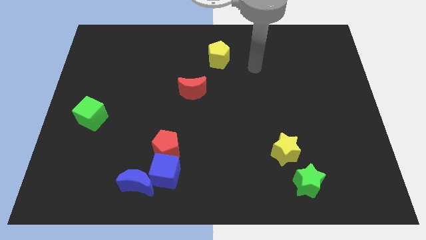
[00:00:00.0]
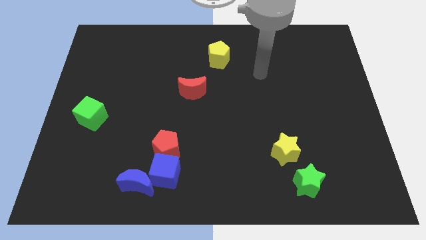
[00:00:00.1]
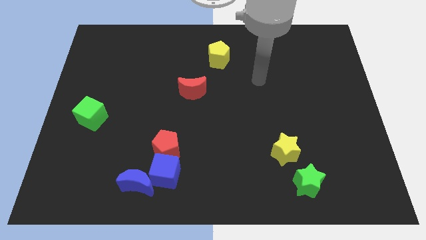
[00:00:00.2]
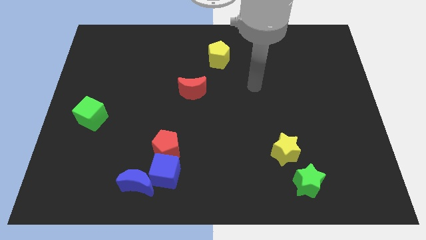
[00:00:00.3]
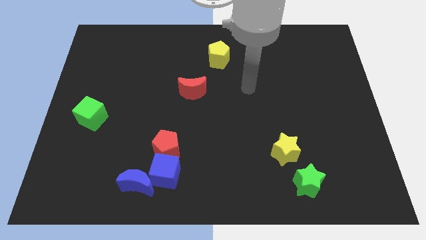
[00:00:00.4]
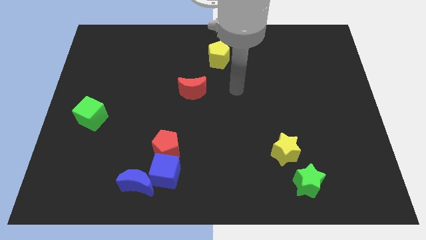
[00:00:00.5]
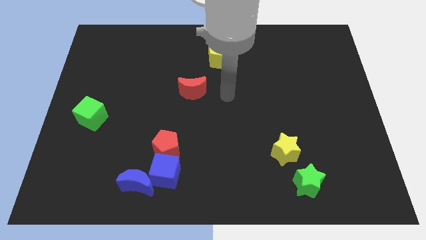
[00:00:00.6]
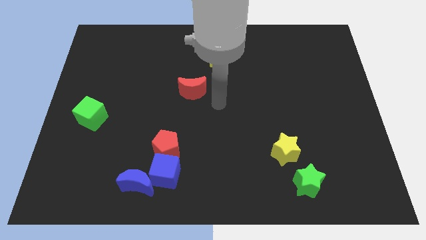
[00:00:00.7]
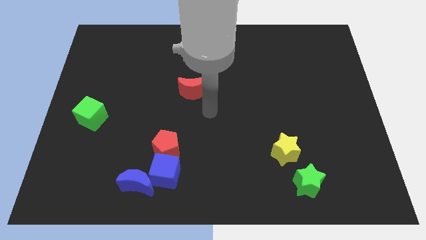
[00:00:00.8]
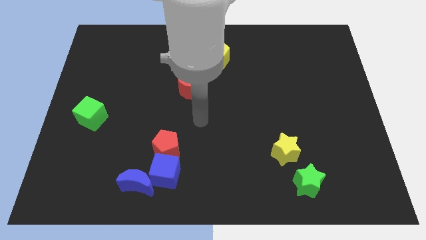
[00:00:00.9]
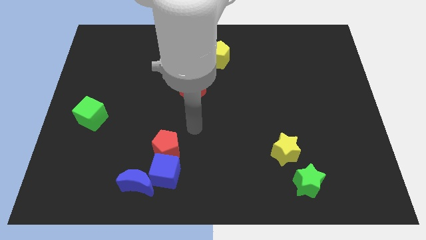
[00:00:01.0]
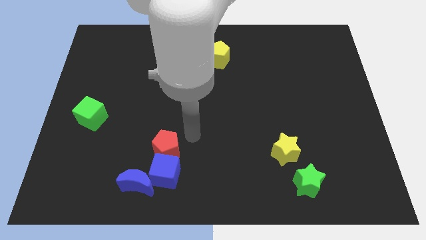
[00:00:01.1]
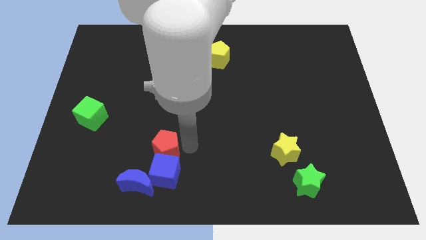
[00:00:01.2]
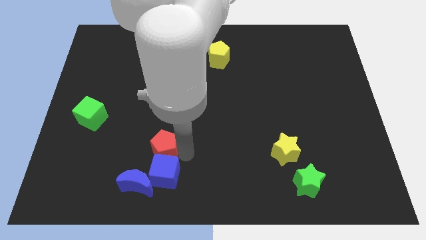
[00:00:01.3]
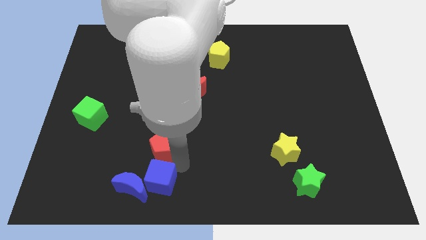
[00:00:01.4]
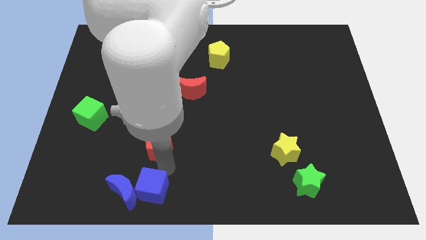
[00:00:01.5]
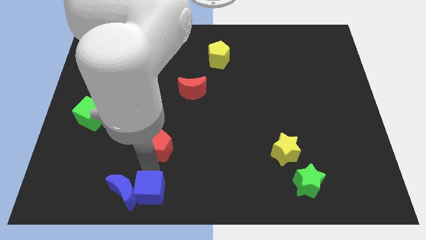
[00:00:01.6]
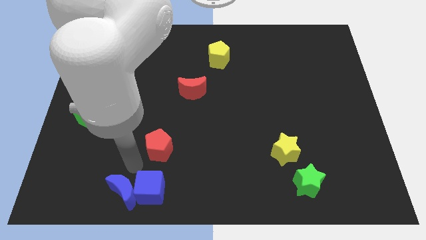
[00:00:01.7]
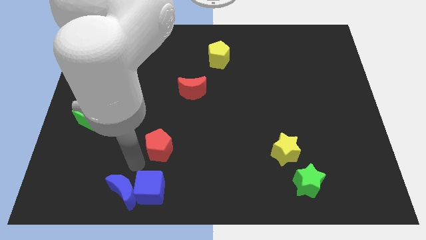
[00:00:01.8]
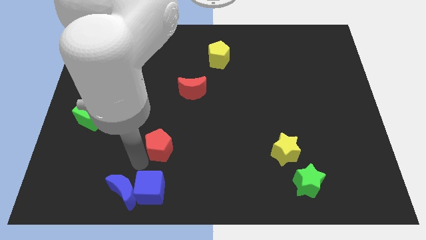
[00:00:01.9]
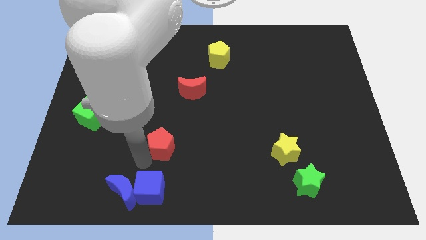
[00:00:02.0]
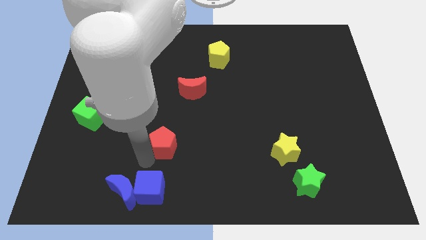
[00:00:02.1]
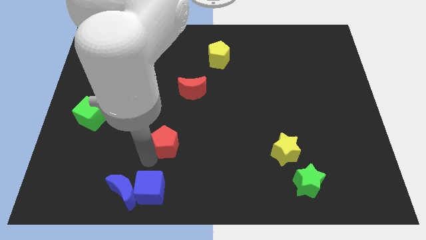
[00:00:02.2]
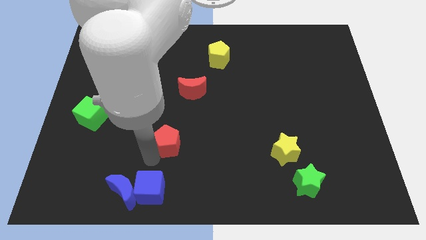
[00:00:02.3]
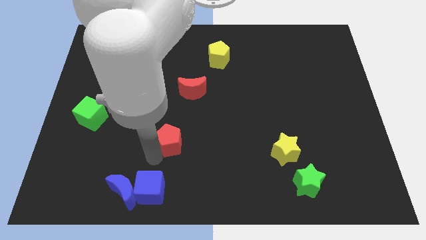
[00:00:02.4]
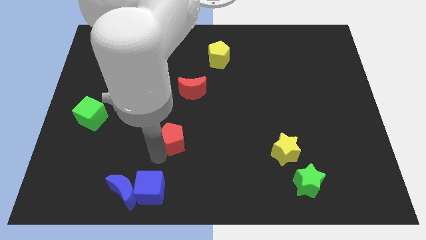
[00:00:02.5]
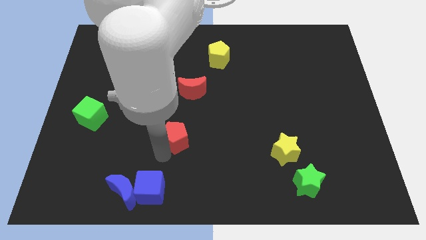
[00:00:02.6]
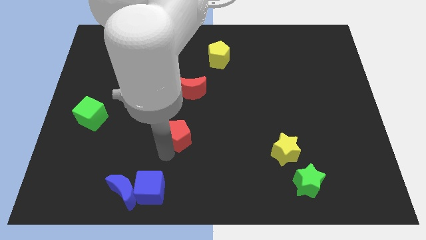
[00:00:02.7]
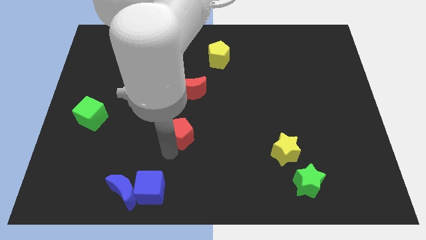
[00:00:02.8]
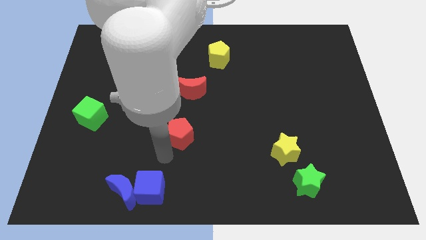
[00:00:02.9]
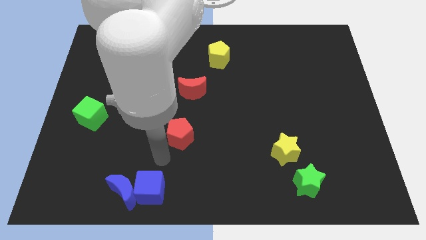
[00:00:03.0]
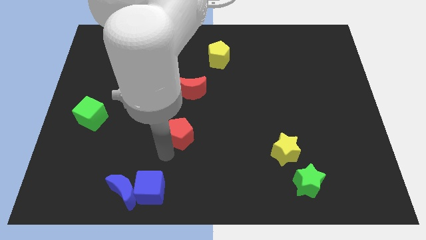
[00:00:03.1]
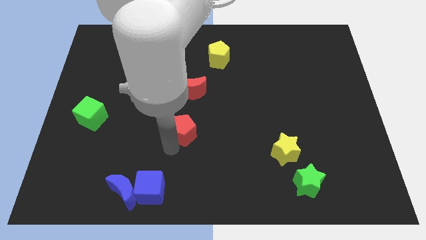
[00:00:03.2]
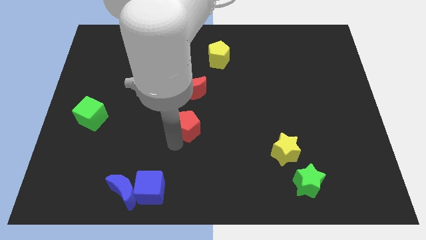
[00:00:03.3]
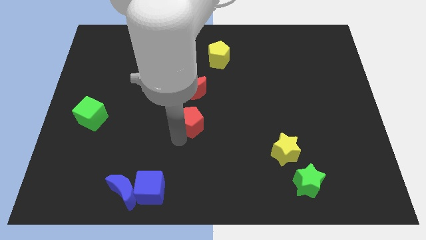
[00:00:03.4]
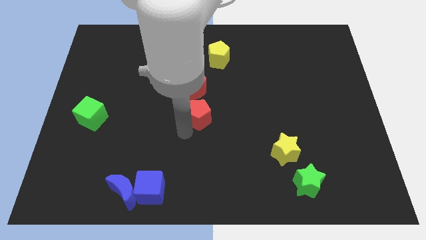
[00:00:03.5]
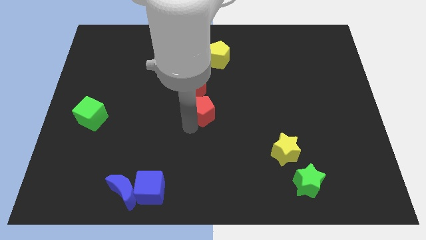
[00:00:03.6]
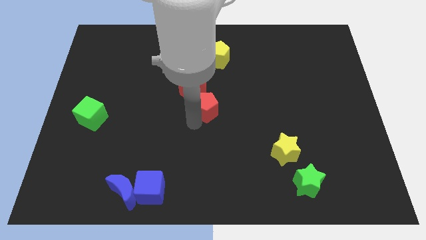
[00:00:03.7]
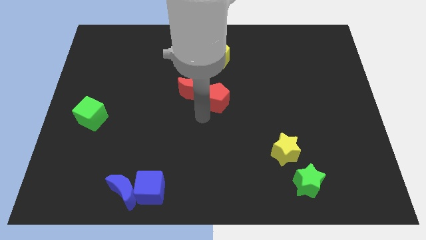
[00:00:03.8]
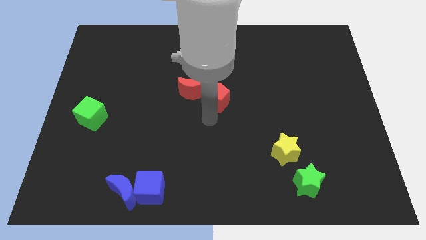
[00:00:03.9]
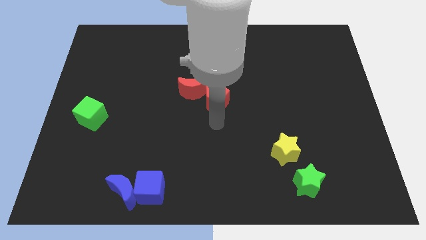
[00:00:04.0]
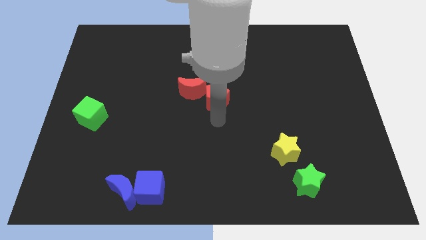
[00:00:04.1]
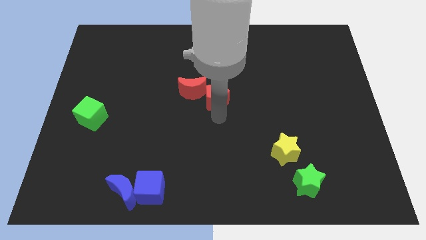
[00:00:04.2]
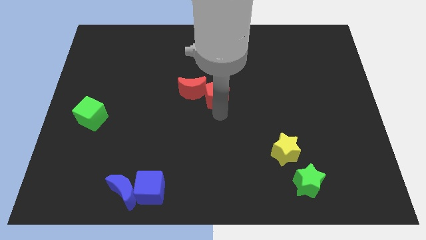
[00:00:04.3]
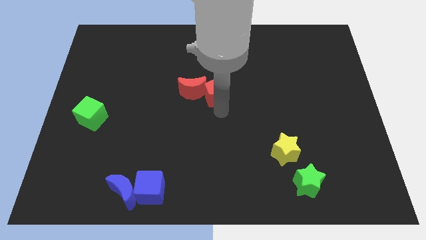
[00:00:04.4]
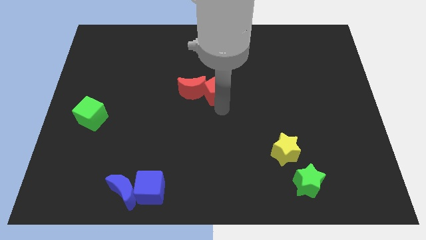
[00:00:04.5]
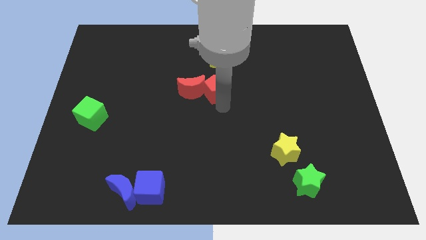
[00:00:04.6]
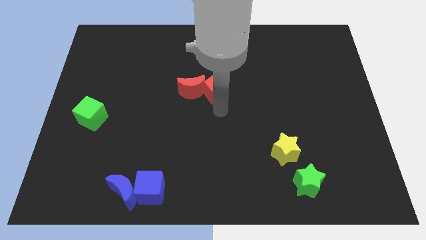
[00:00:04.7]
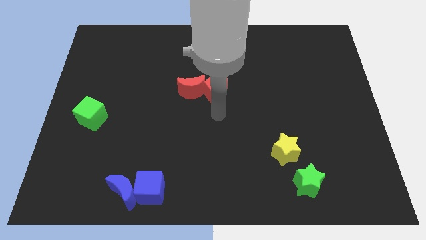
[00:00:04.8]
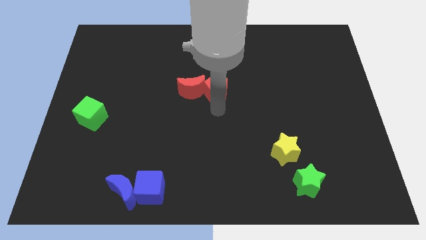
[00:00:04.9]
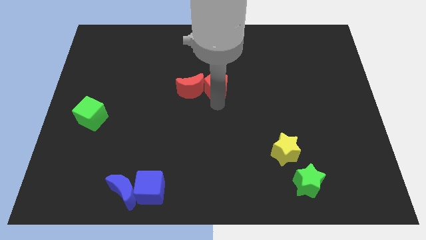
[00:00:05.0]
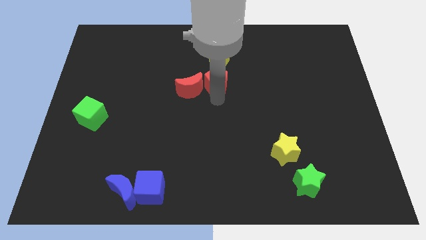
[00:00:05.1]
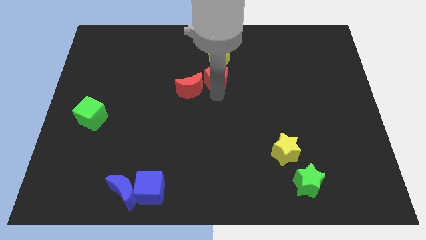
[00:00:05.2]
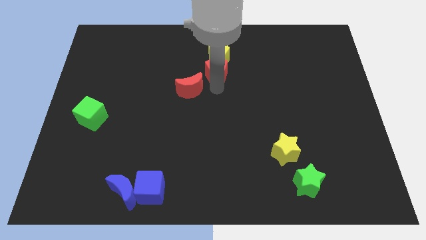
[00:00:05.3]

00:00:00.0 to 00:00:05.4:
put the red pentagon next to the yellow pentagon

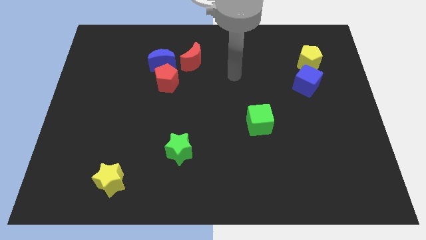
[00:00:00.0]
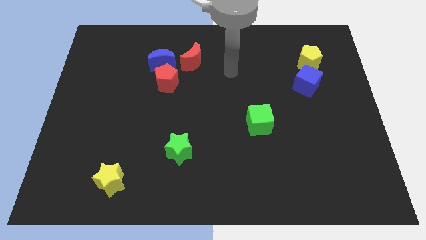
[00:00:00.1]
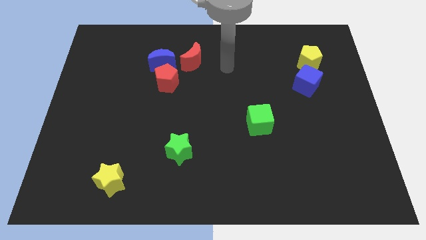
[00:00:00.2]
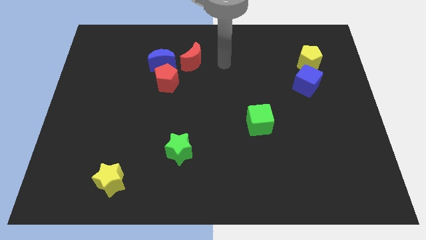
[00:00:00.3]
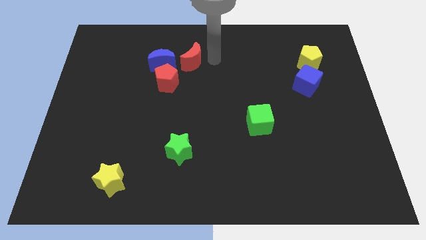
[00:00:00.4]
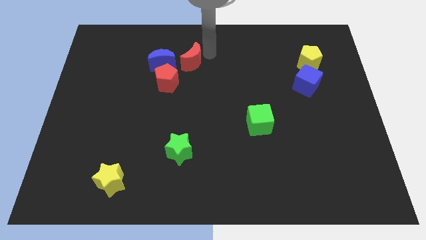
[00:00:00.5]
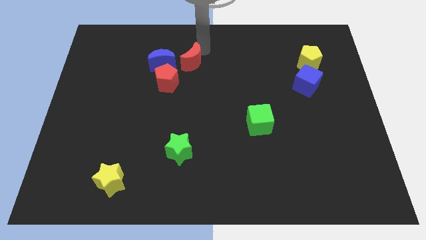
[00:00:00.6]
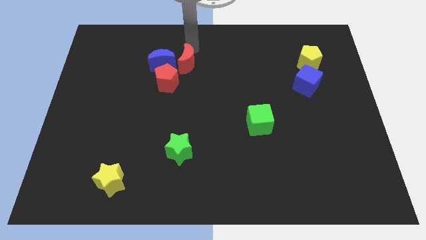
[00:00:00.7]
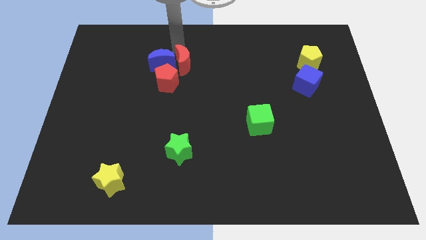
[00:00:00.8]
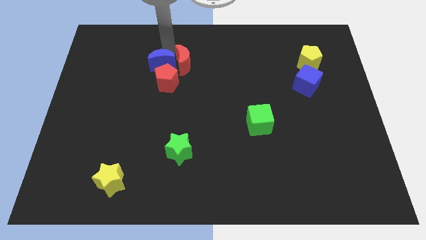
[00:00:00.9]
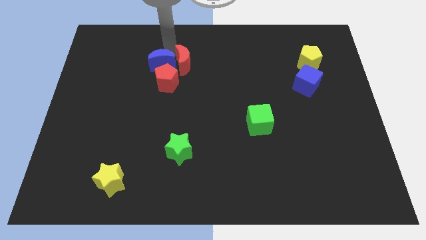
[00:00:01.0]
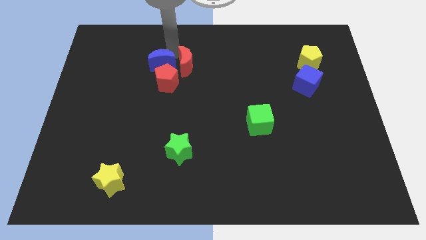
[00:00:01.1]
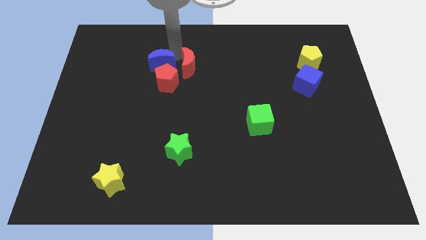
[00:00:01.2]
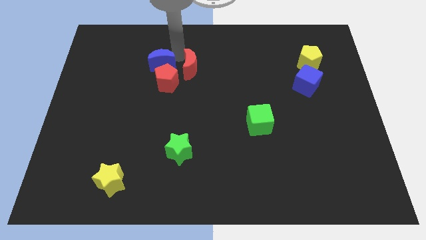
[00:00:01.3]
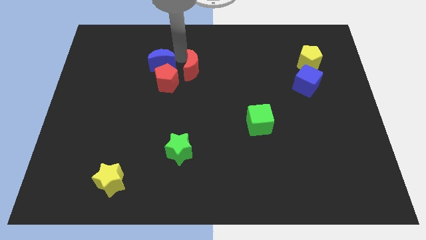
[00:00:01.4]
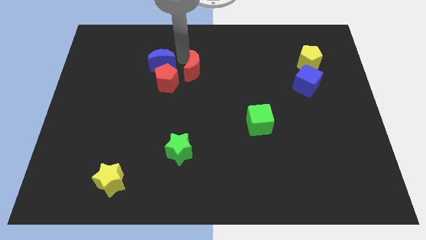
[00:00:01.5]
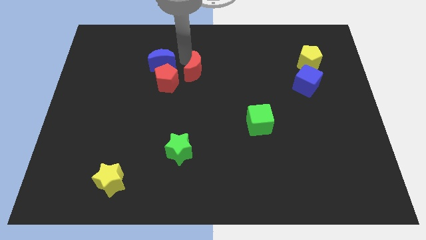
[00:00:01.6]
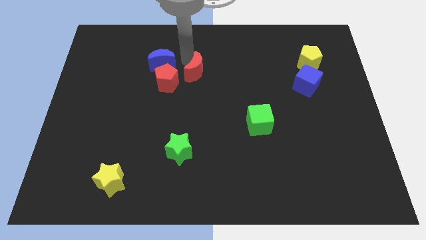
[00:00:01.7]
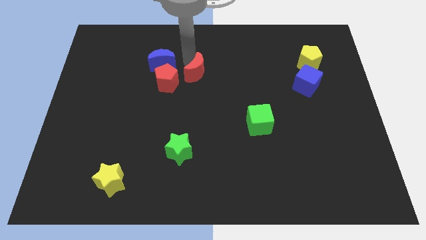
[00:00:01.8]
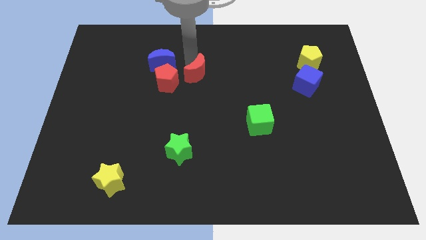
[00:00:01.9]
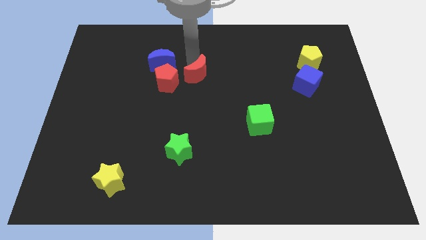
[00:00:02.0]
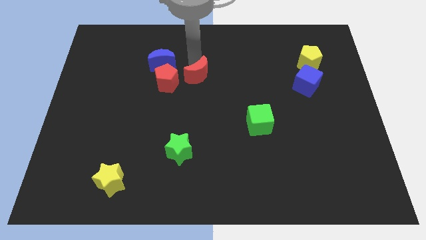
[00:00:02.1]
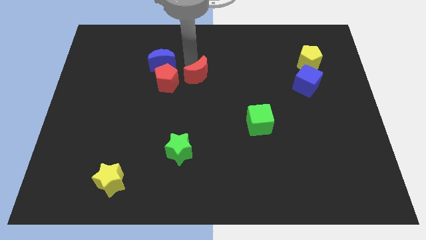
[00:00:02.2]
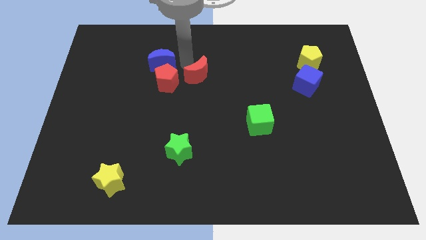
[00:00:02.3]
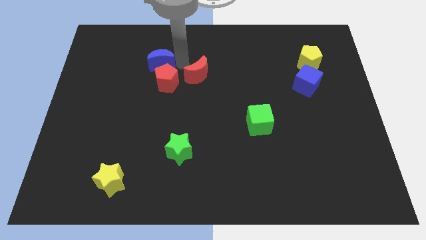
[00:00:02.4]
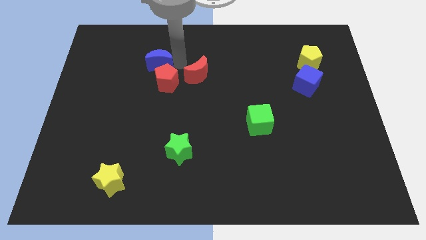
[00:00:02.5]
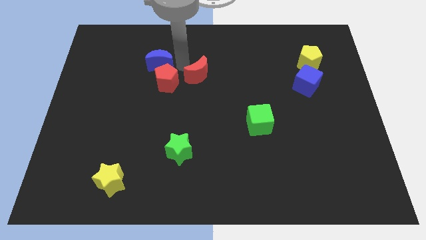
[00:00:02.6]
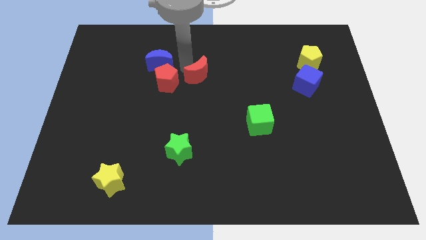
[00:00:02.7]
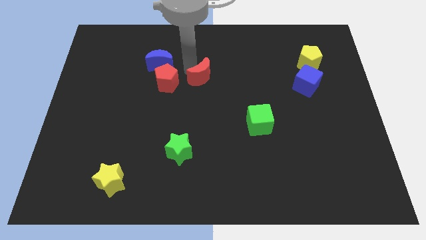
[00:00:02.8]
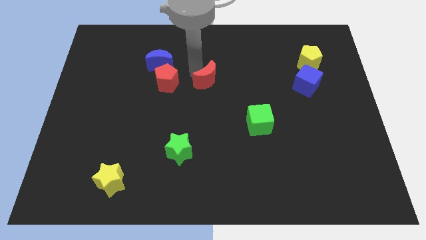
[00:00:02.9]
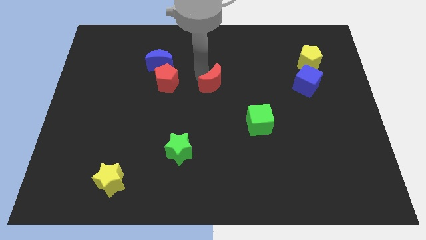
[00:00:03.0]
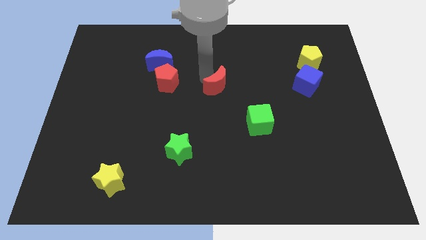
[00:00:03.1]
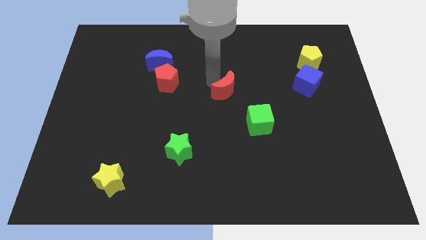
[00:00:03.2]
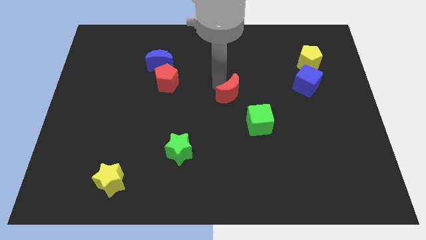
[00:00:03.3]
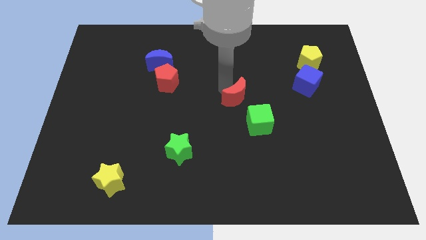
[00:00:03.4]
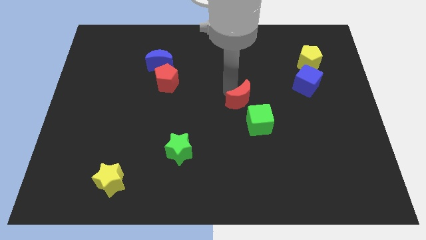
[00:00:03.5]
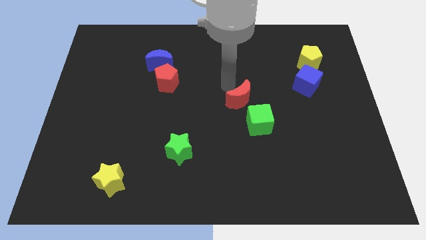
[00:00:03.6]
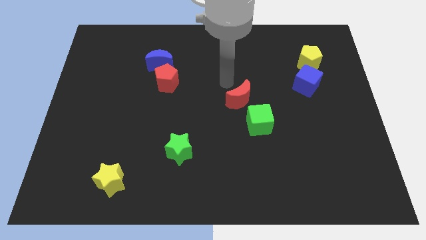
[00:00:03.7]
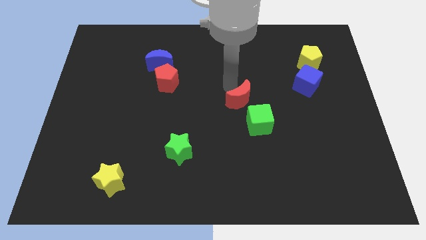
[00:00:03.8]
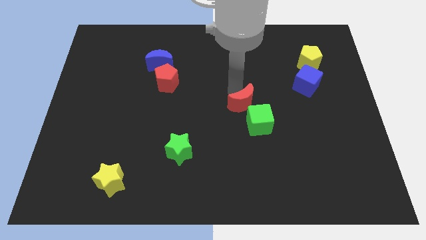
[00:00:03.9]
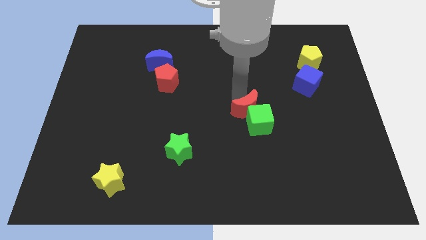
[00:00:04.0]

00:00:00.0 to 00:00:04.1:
put the red moon close to the green cube
